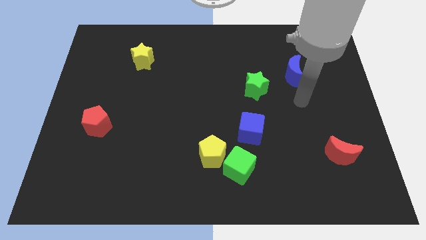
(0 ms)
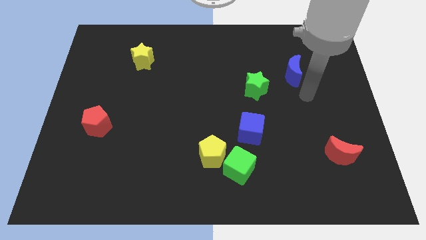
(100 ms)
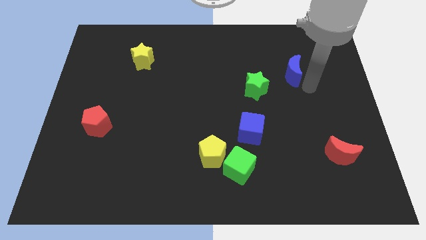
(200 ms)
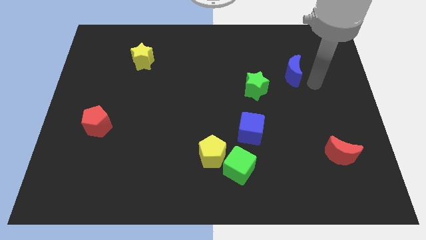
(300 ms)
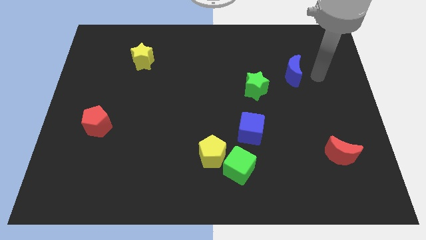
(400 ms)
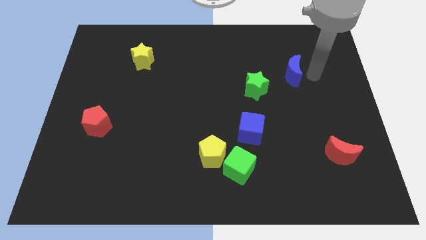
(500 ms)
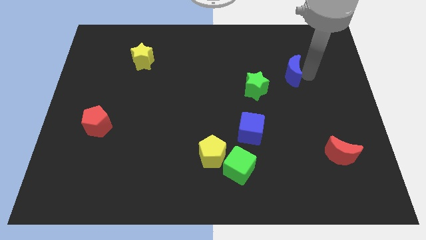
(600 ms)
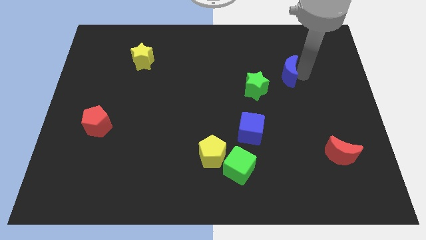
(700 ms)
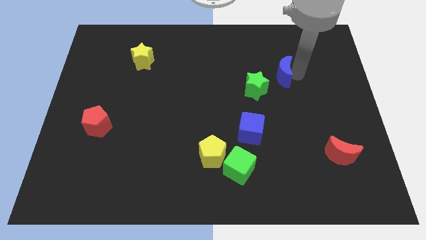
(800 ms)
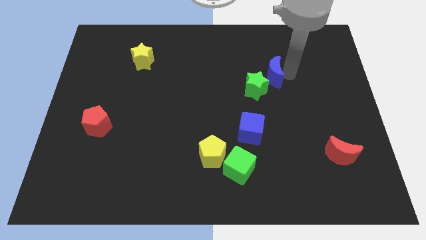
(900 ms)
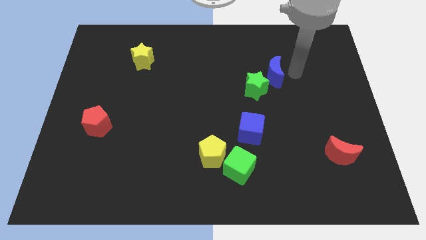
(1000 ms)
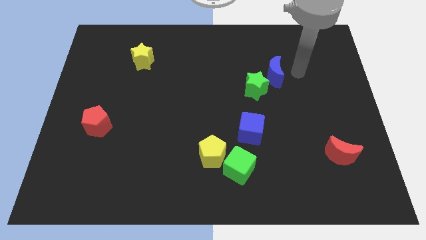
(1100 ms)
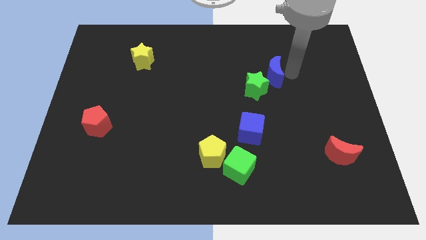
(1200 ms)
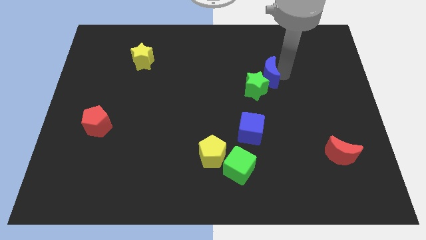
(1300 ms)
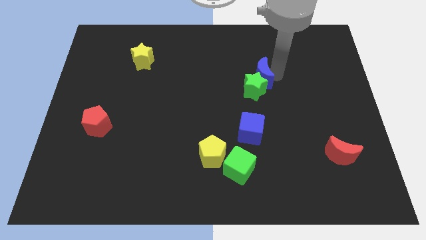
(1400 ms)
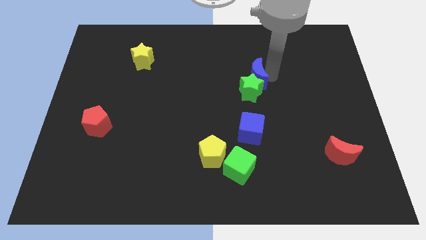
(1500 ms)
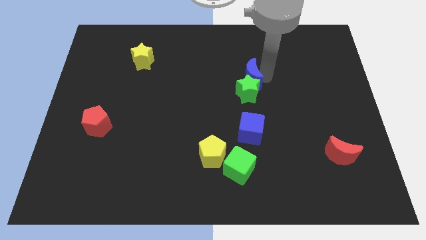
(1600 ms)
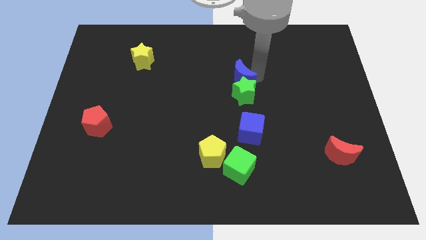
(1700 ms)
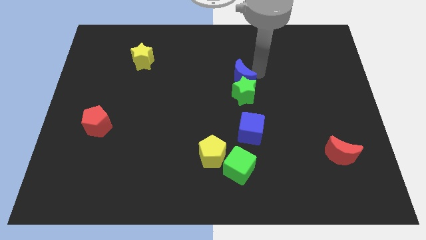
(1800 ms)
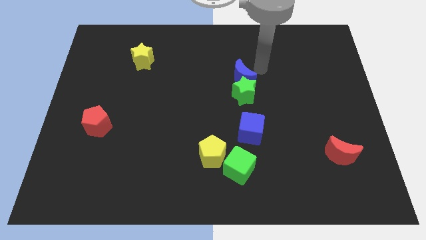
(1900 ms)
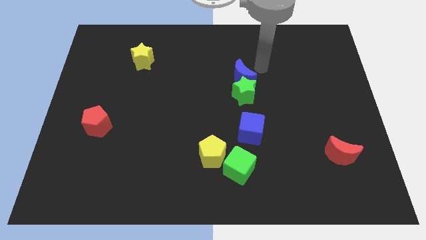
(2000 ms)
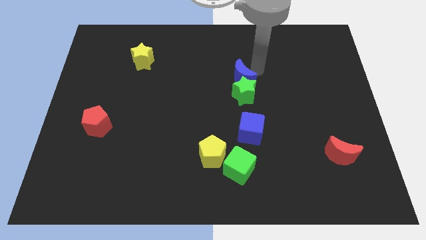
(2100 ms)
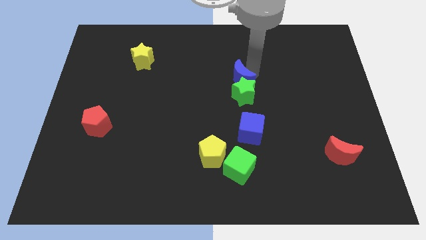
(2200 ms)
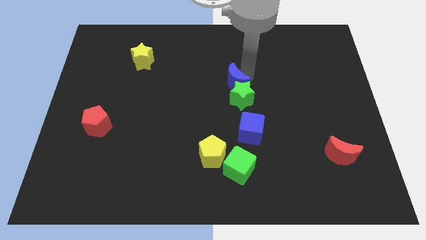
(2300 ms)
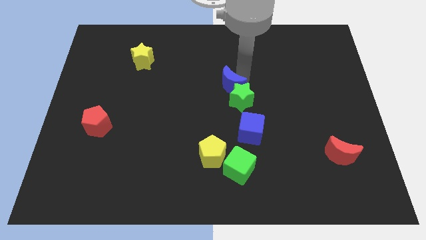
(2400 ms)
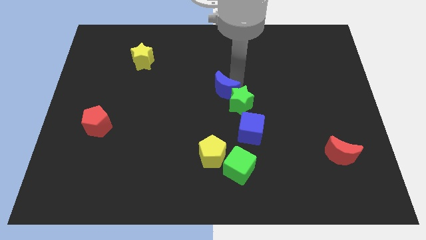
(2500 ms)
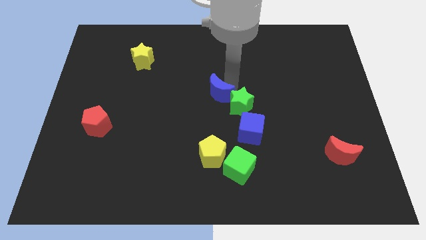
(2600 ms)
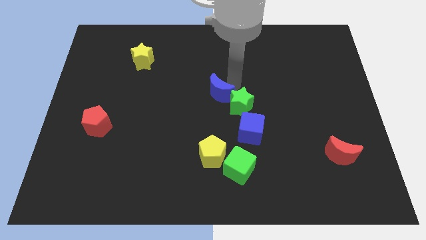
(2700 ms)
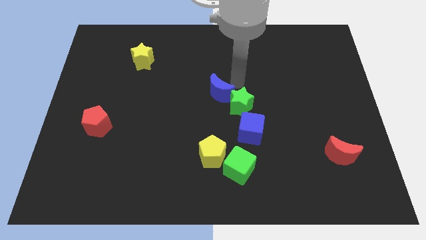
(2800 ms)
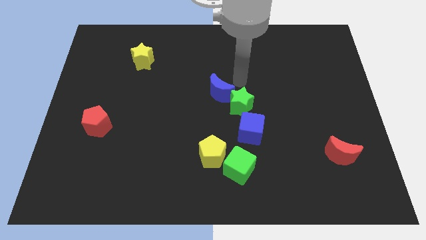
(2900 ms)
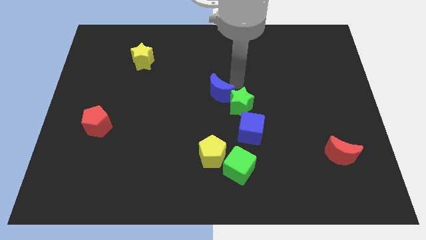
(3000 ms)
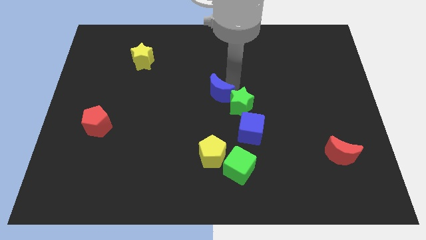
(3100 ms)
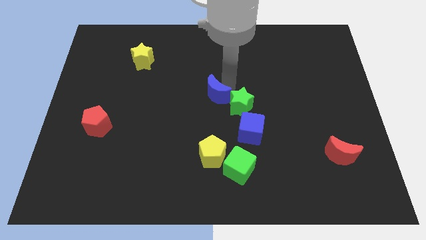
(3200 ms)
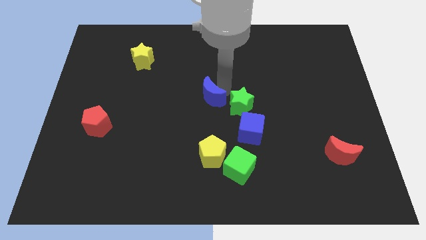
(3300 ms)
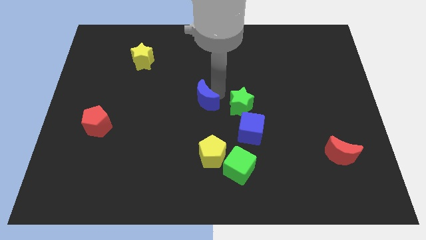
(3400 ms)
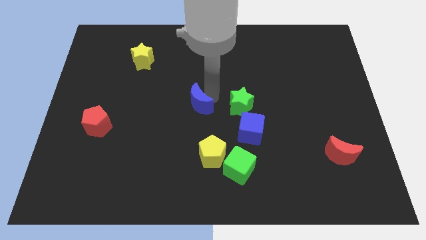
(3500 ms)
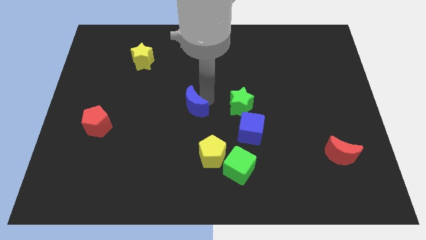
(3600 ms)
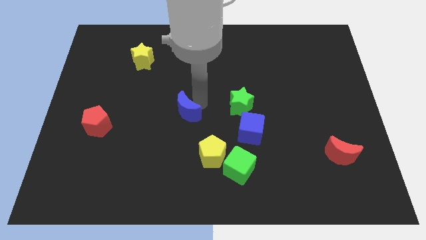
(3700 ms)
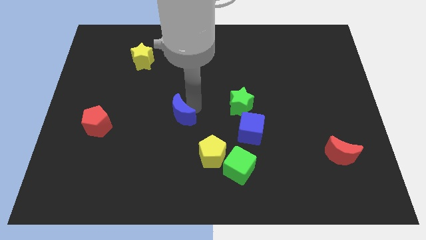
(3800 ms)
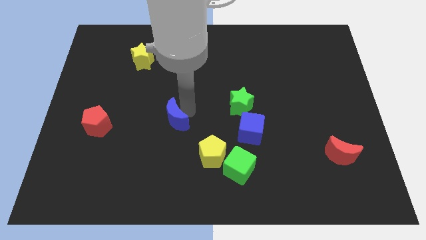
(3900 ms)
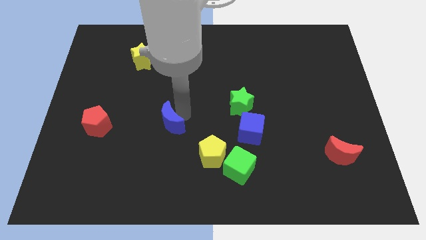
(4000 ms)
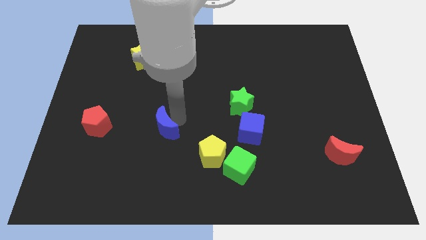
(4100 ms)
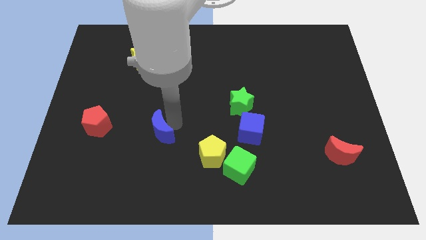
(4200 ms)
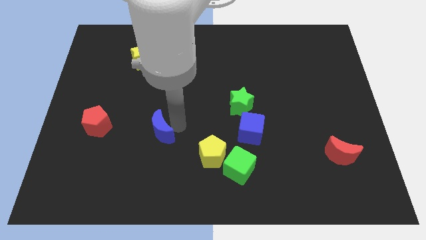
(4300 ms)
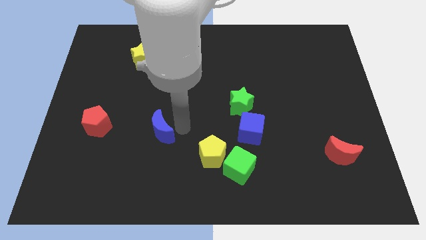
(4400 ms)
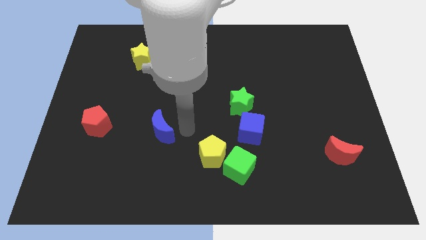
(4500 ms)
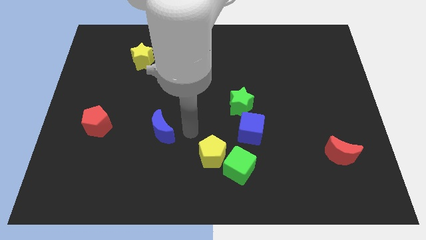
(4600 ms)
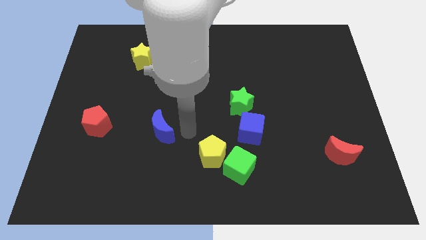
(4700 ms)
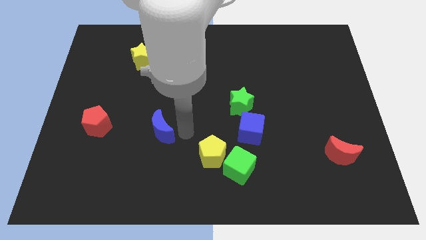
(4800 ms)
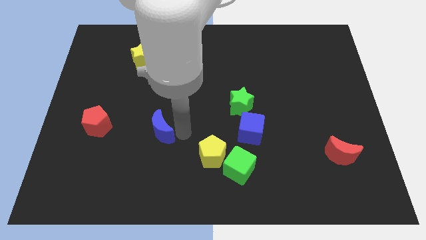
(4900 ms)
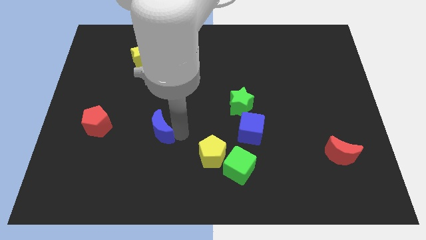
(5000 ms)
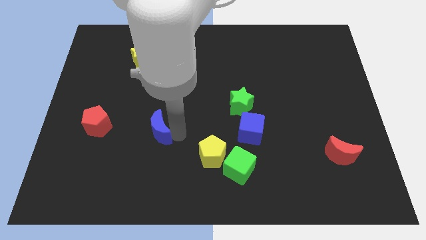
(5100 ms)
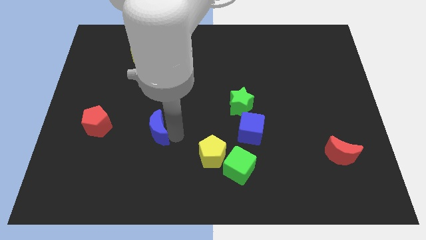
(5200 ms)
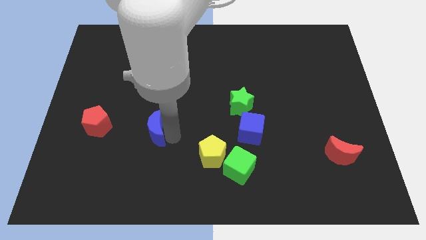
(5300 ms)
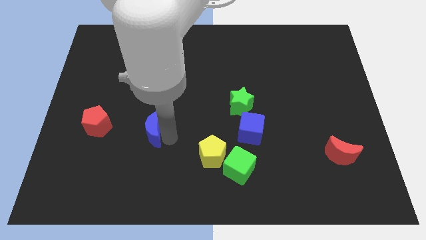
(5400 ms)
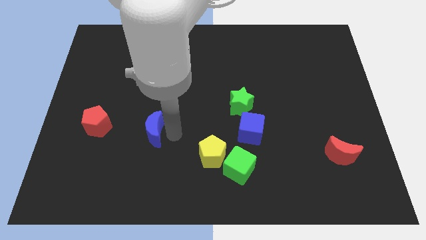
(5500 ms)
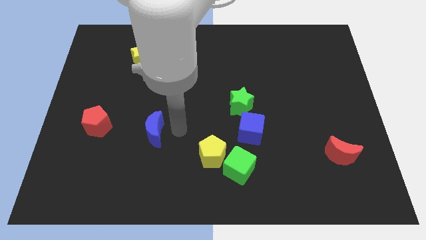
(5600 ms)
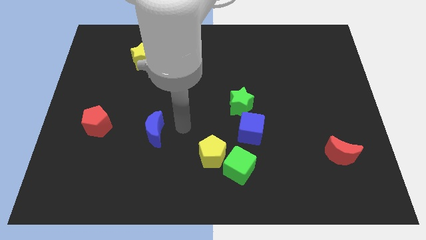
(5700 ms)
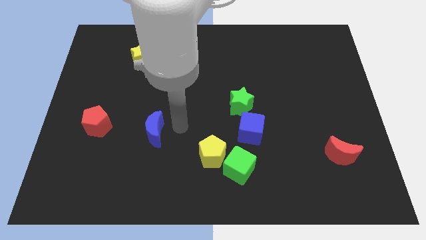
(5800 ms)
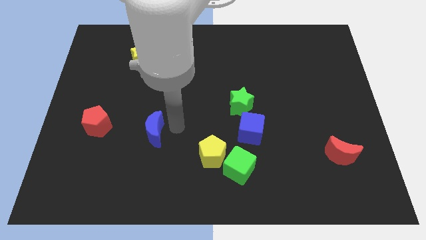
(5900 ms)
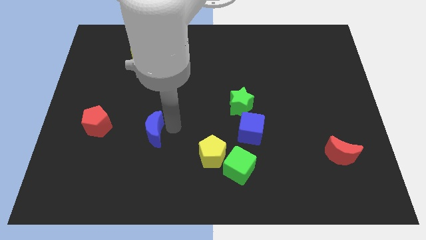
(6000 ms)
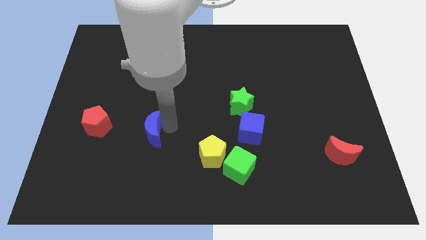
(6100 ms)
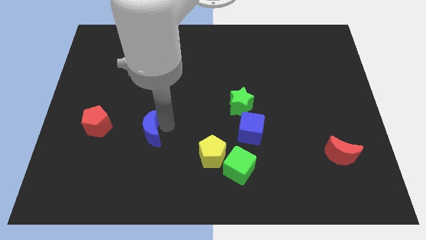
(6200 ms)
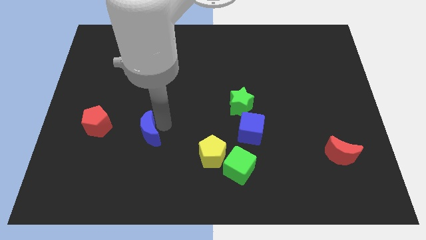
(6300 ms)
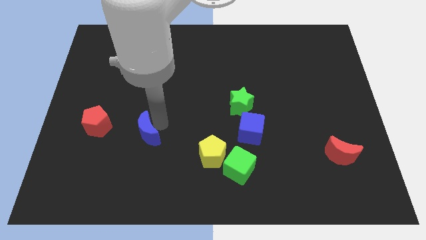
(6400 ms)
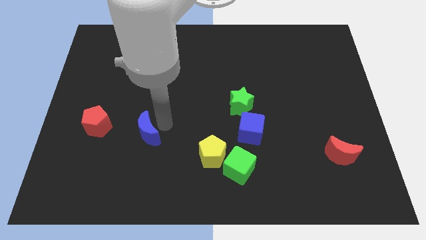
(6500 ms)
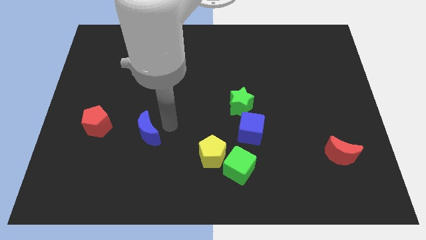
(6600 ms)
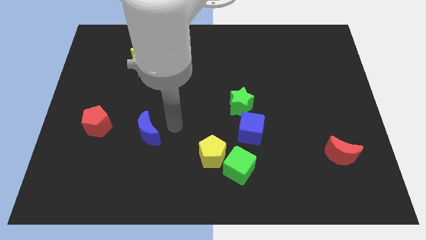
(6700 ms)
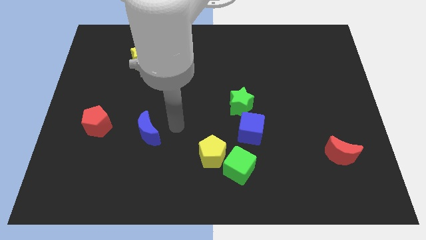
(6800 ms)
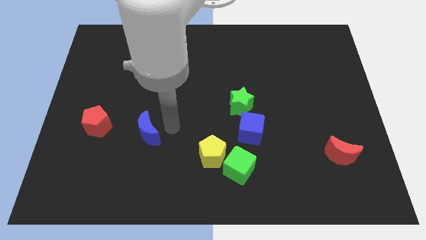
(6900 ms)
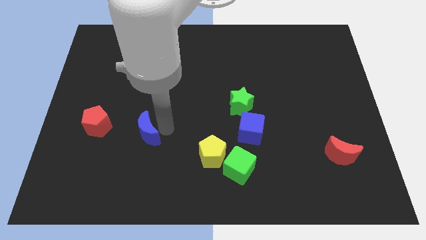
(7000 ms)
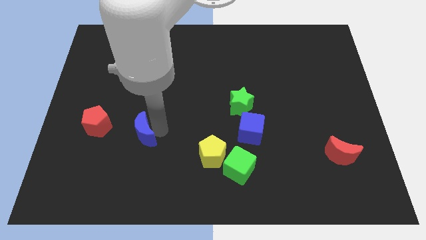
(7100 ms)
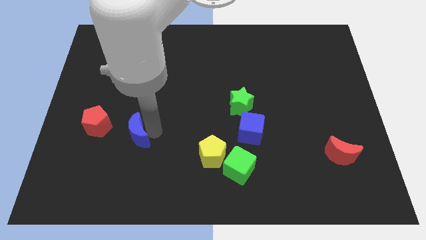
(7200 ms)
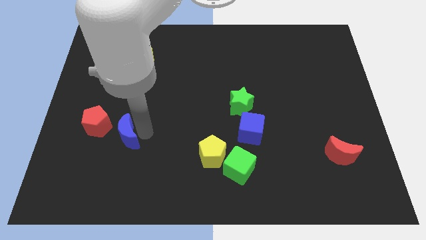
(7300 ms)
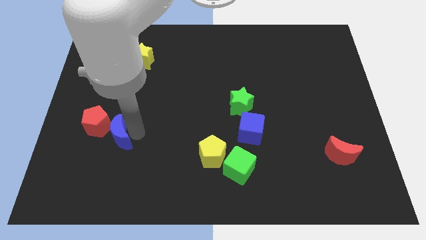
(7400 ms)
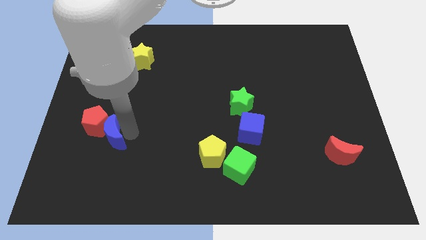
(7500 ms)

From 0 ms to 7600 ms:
move the blue moon to the bottom side of the red pentagon
